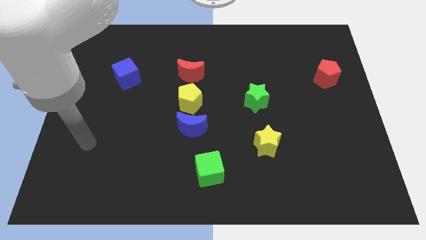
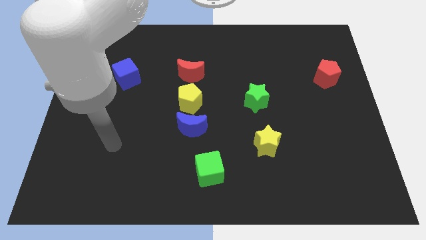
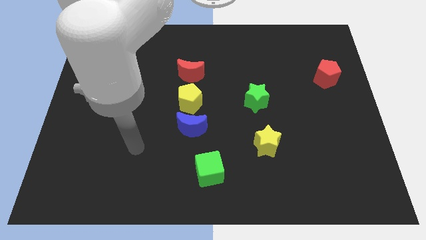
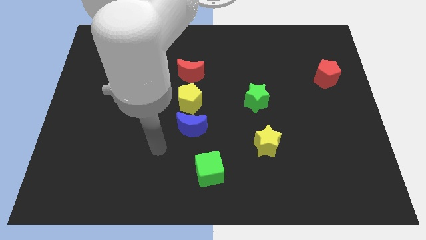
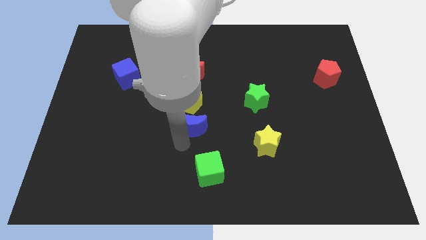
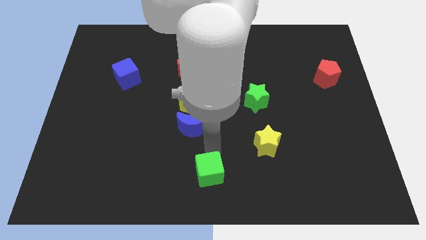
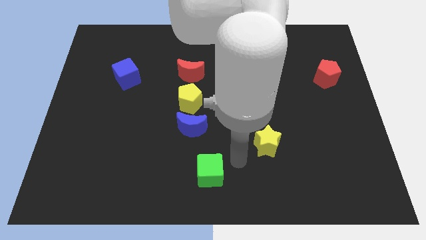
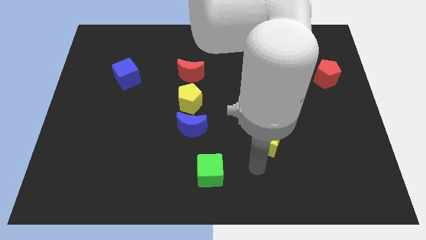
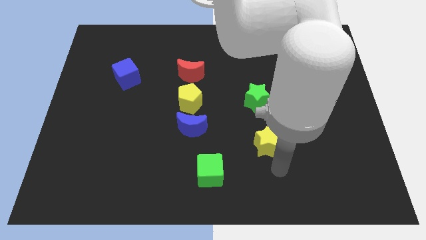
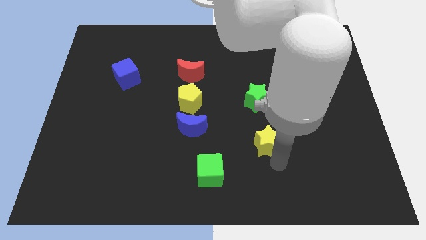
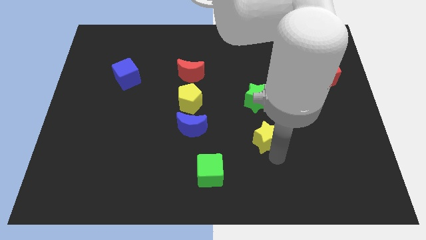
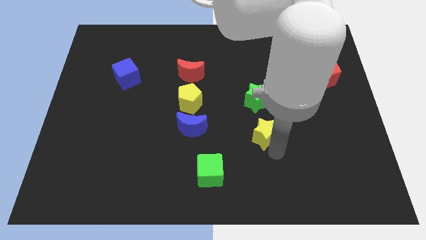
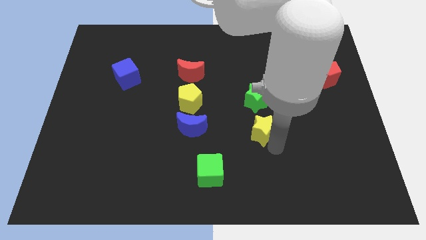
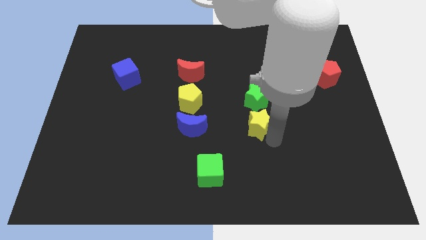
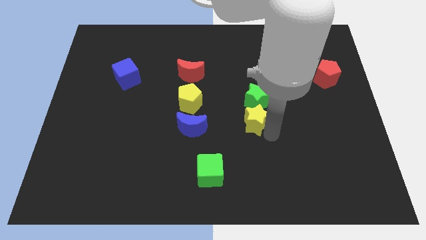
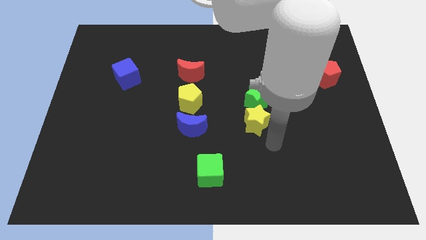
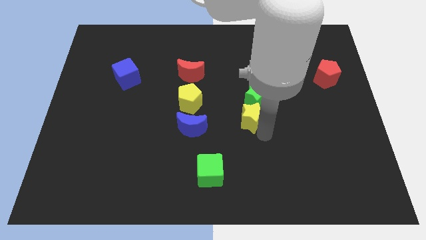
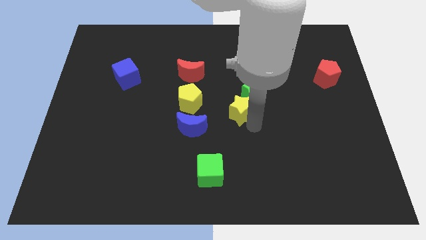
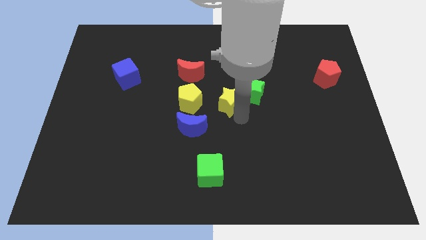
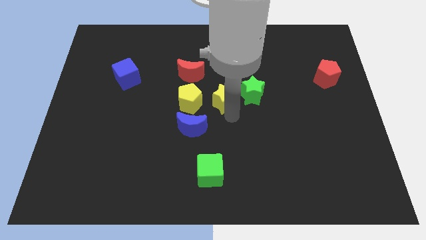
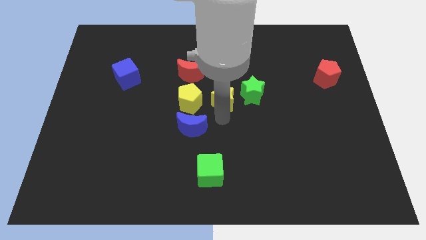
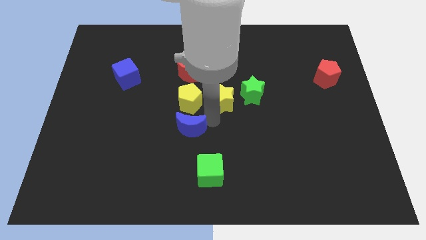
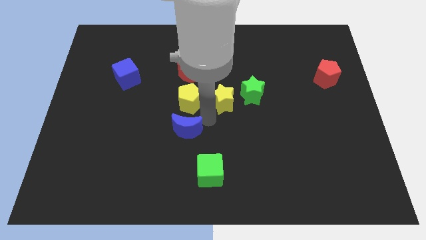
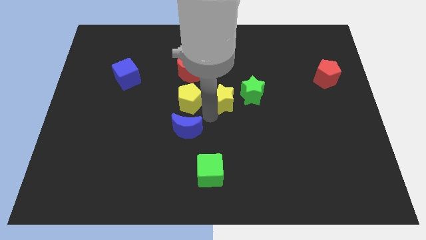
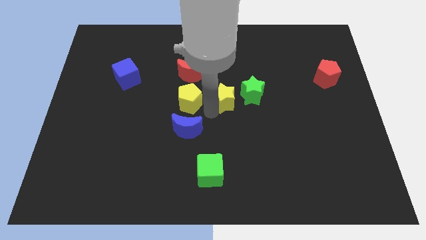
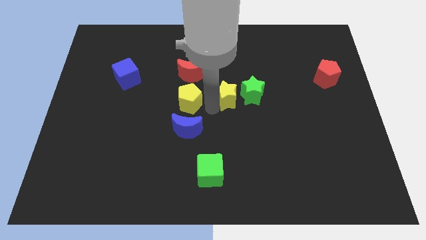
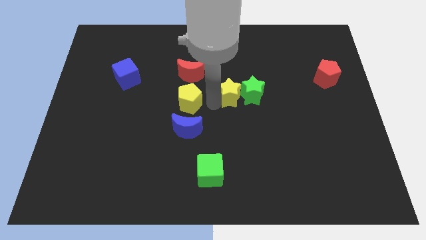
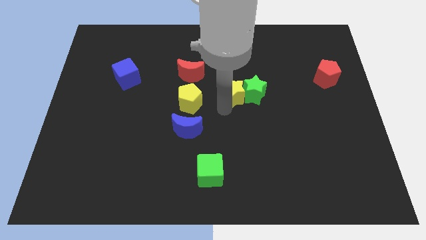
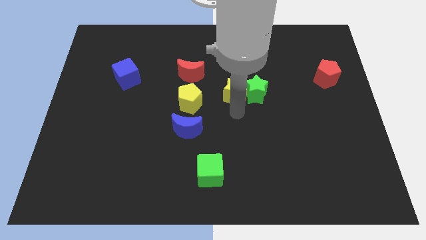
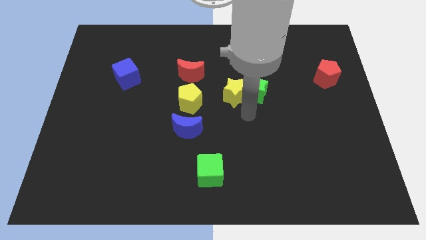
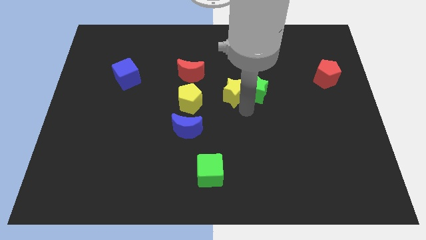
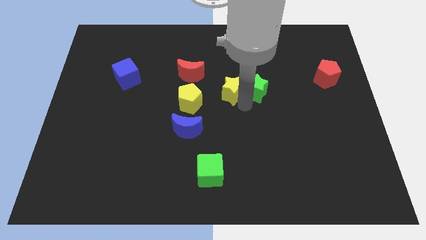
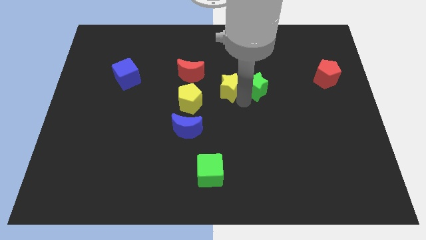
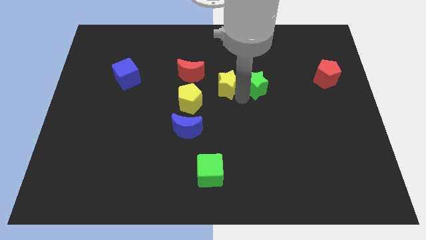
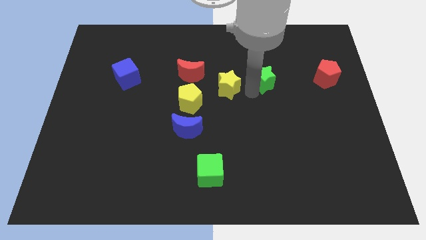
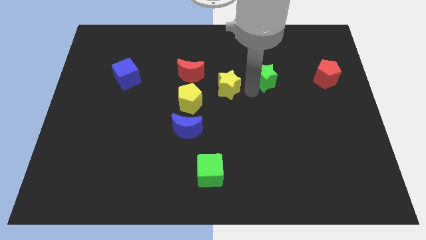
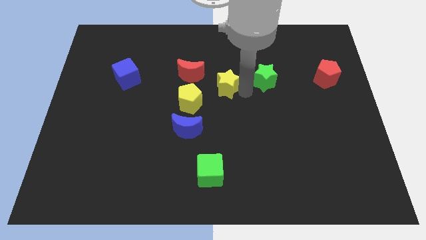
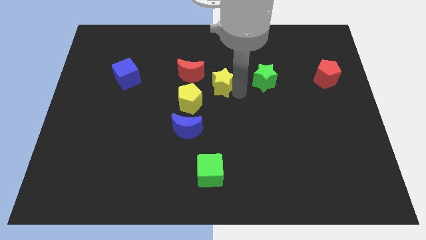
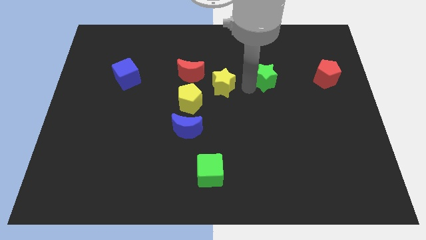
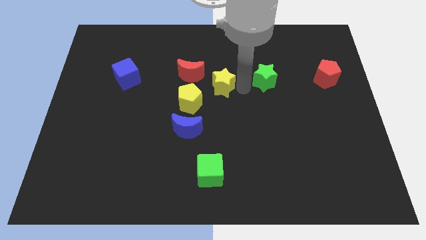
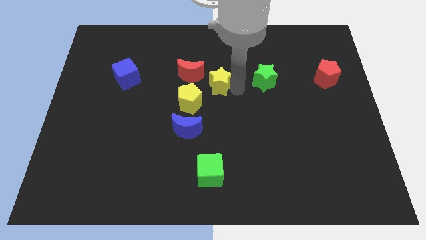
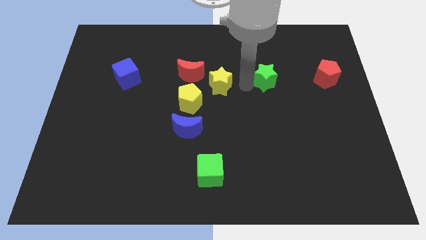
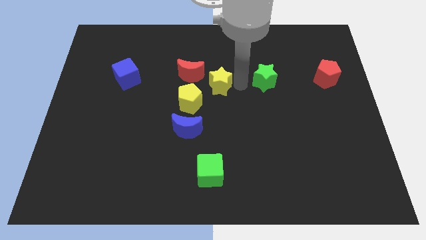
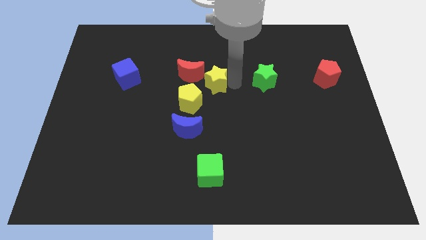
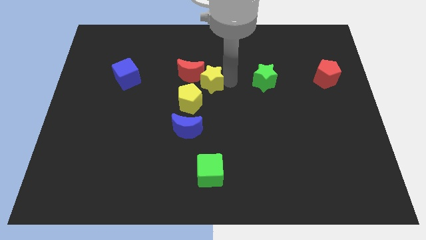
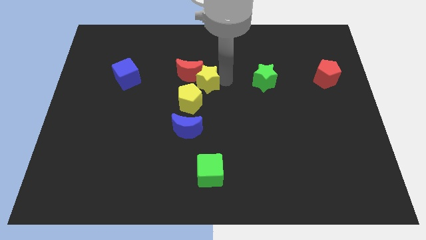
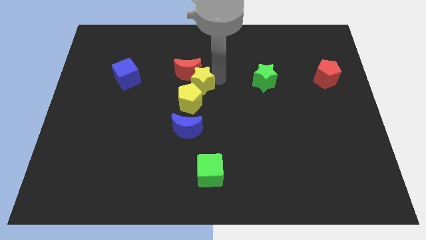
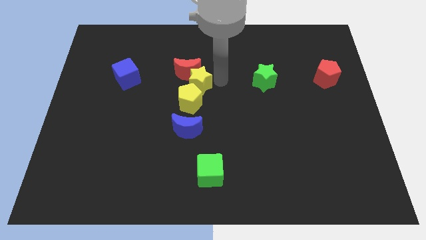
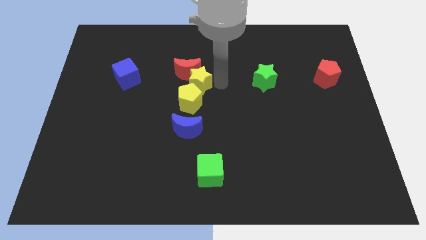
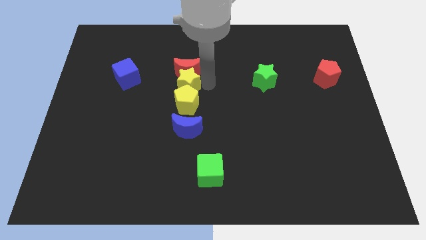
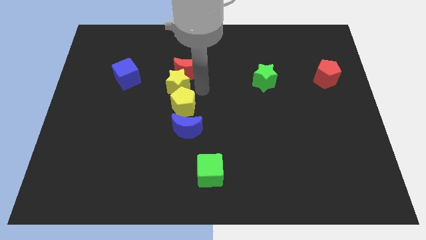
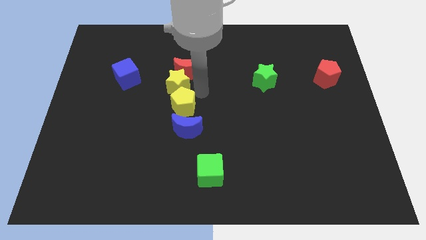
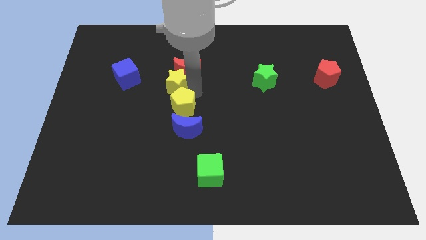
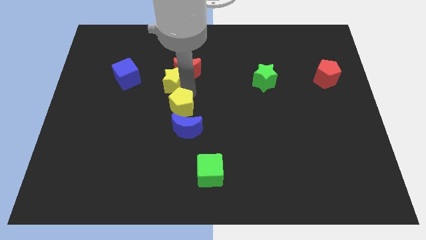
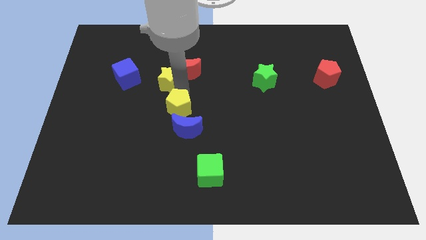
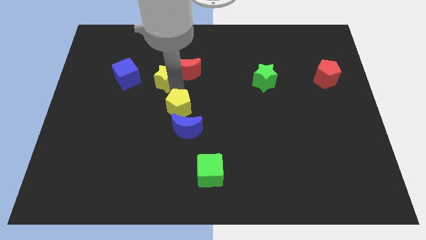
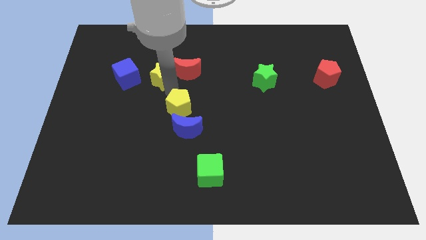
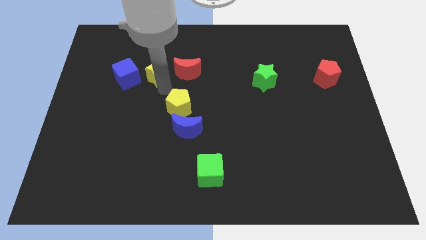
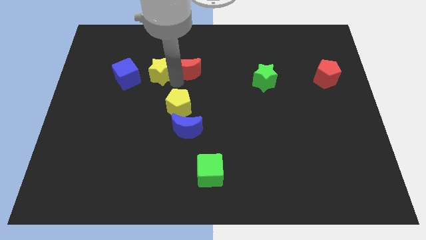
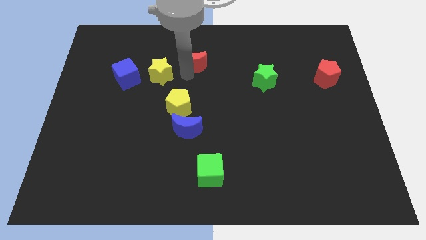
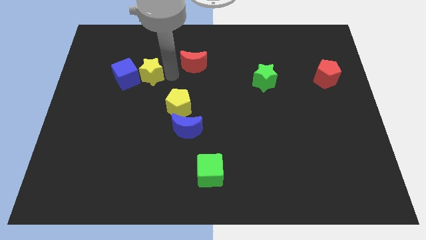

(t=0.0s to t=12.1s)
slide the yellow star next to the blue cube

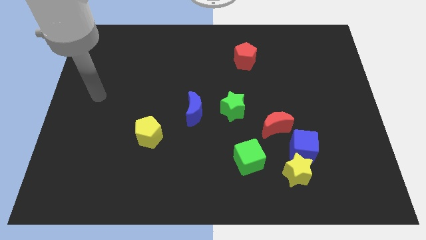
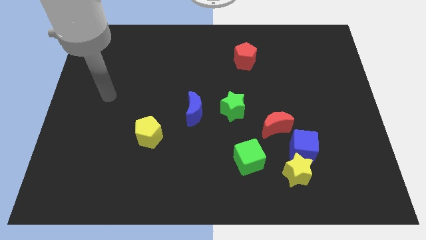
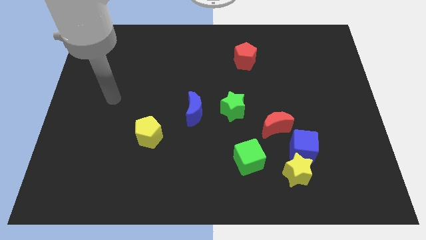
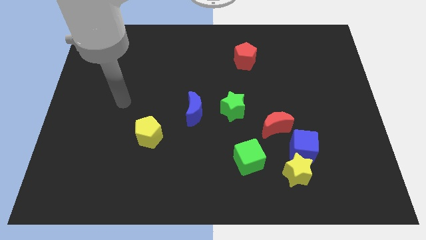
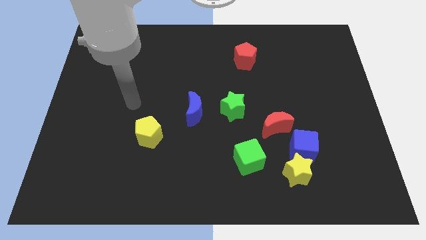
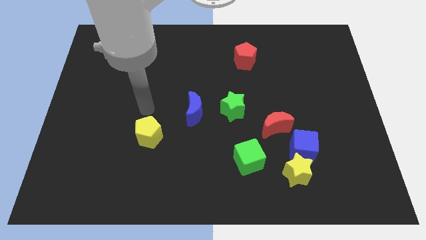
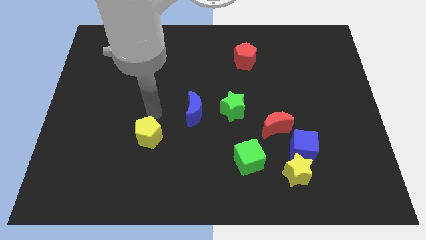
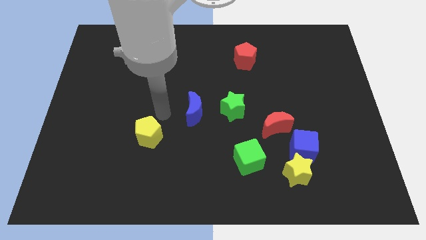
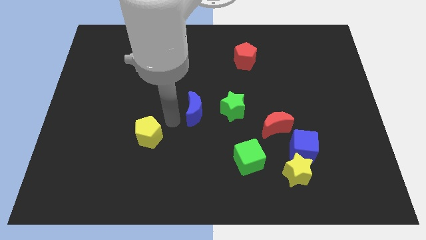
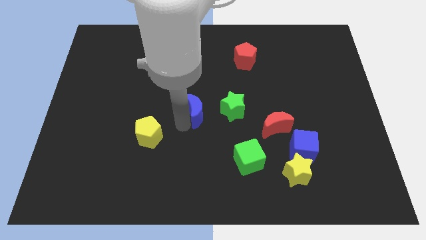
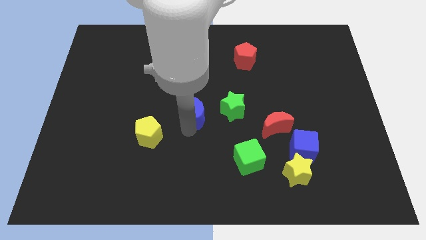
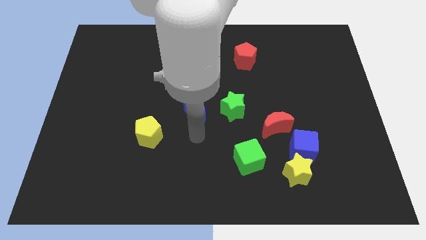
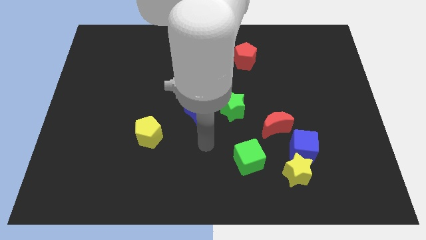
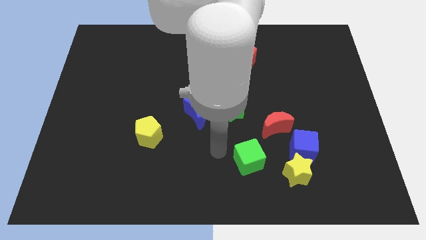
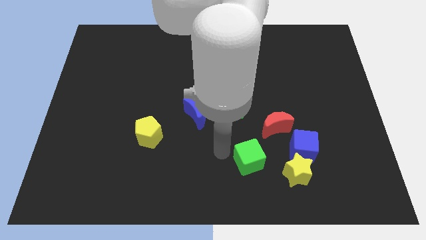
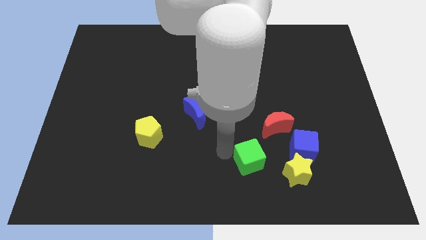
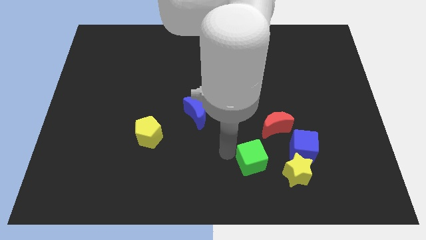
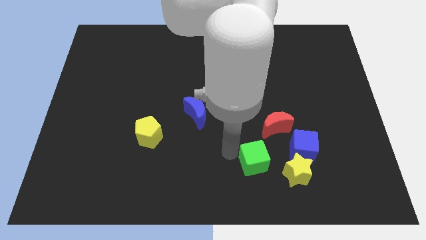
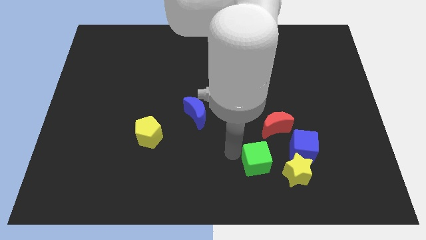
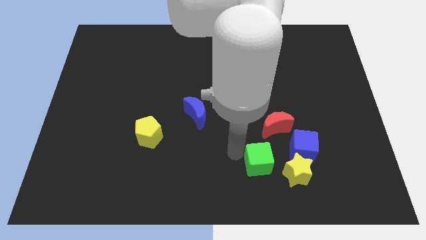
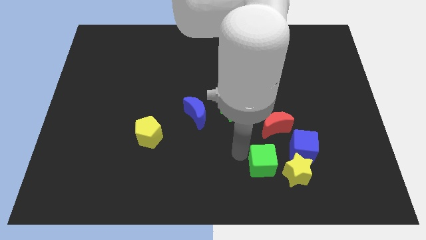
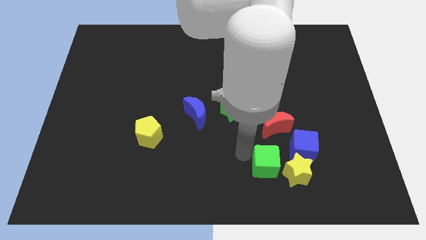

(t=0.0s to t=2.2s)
put the green cube next to the yellow star
